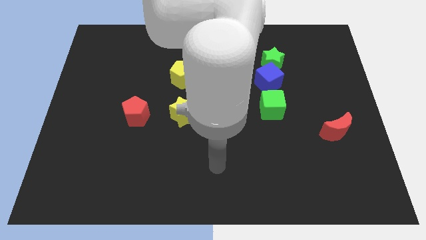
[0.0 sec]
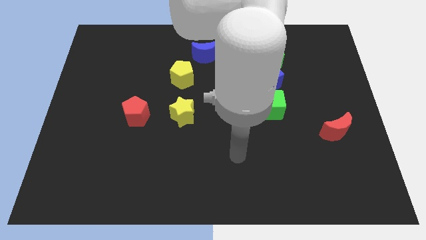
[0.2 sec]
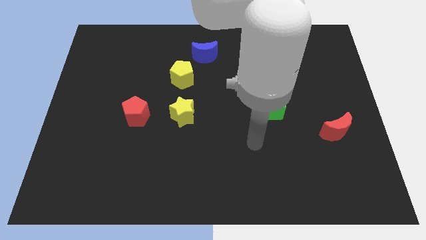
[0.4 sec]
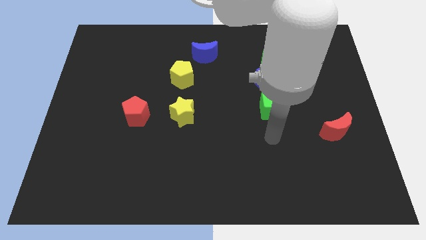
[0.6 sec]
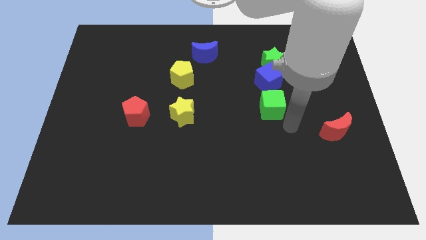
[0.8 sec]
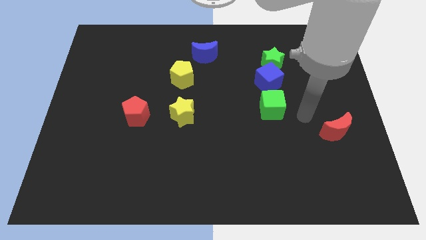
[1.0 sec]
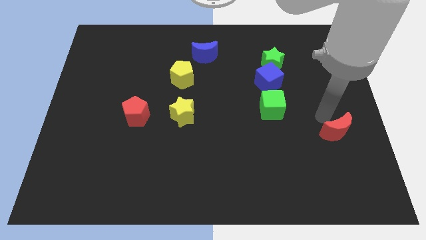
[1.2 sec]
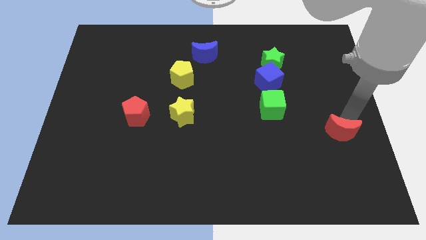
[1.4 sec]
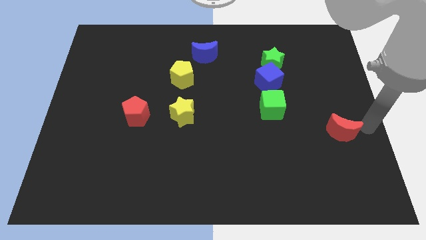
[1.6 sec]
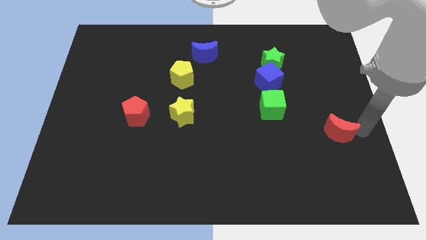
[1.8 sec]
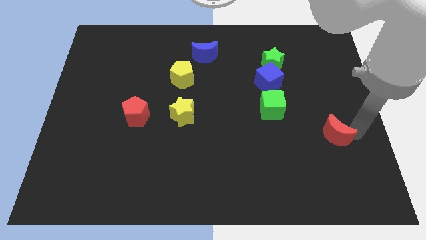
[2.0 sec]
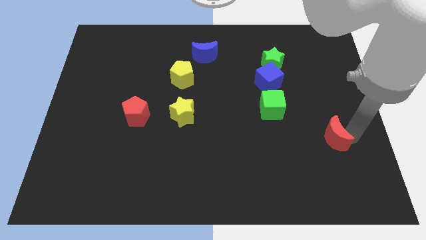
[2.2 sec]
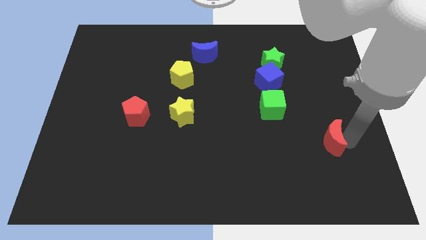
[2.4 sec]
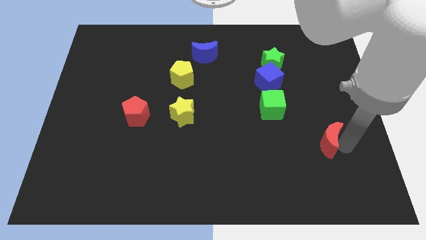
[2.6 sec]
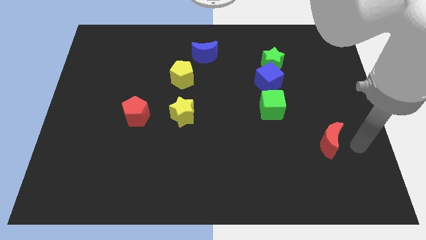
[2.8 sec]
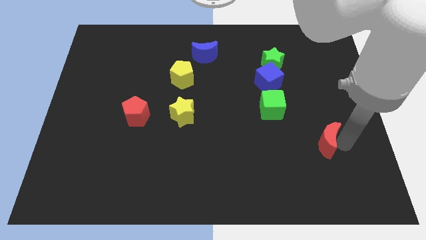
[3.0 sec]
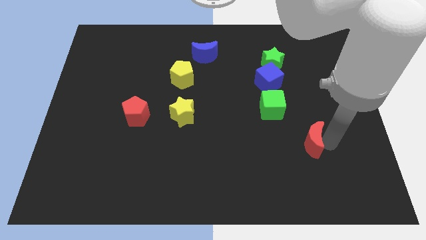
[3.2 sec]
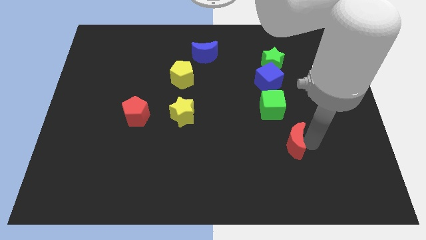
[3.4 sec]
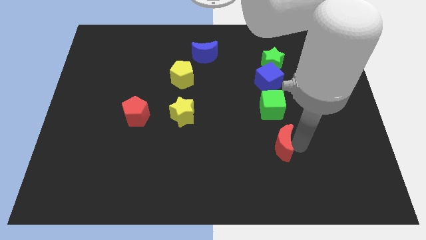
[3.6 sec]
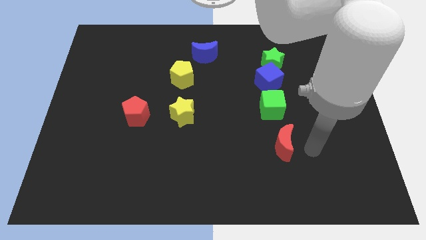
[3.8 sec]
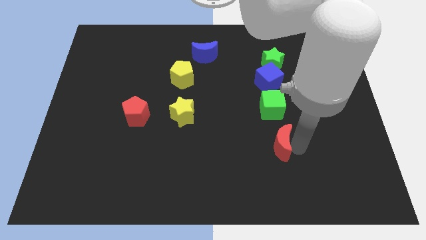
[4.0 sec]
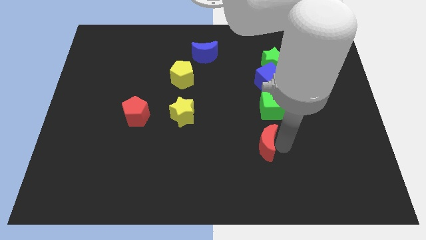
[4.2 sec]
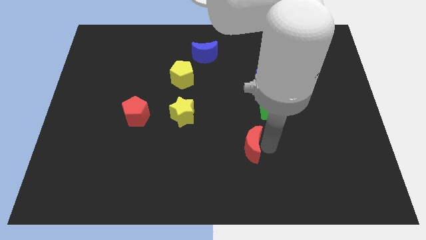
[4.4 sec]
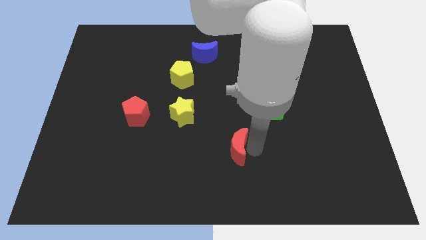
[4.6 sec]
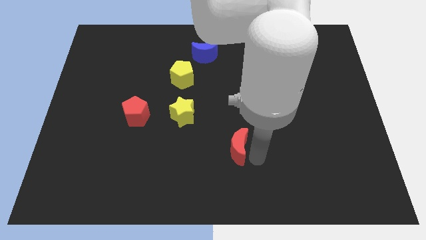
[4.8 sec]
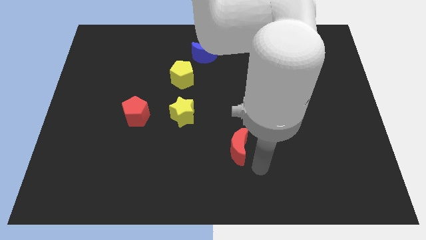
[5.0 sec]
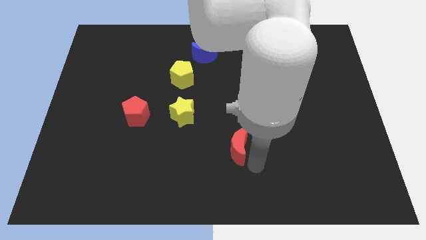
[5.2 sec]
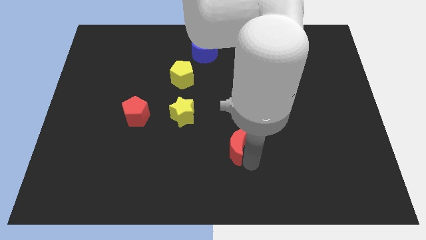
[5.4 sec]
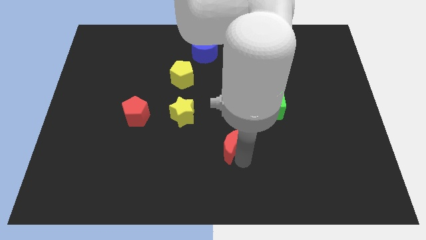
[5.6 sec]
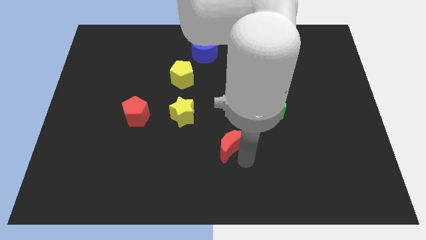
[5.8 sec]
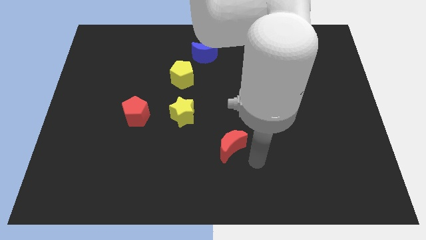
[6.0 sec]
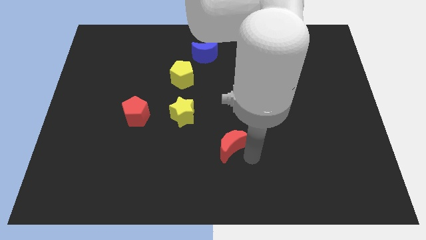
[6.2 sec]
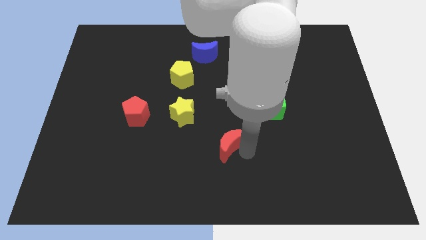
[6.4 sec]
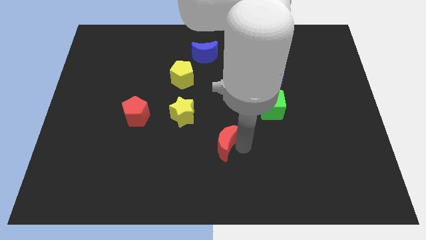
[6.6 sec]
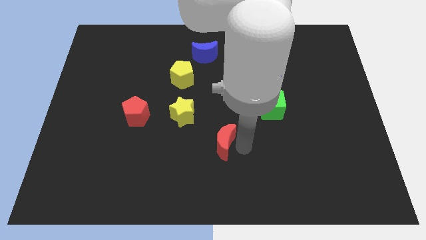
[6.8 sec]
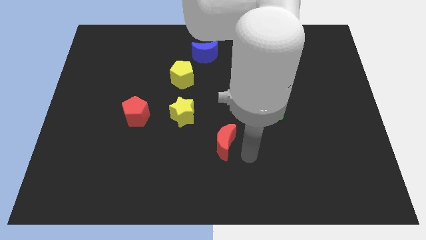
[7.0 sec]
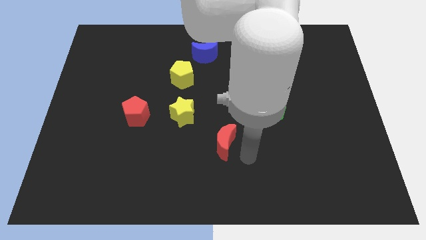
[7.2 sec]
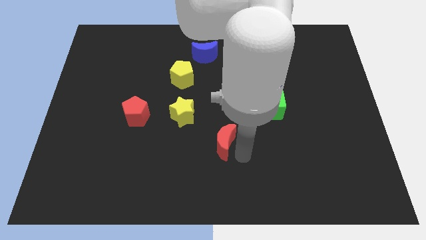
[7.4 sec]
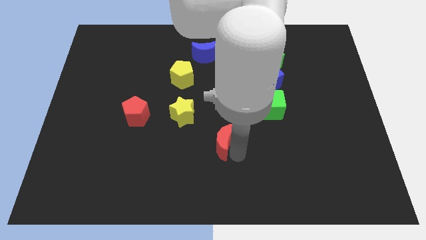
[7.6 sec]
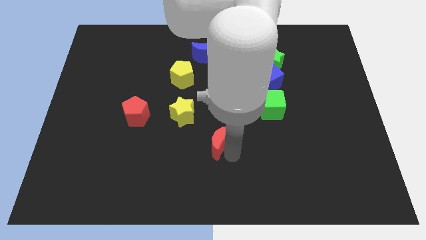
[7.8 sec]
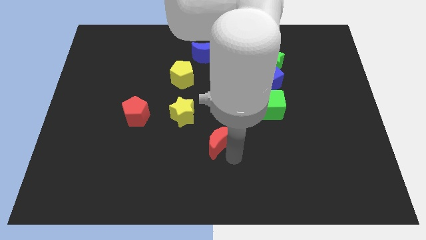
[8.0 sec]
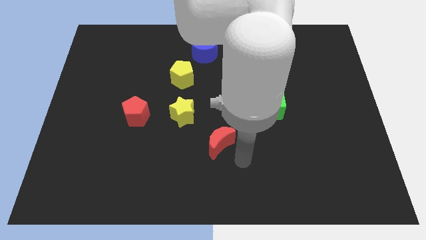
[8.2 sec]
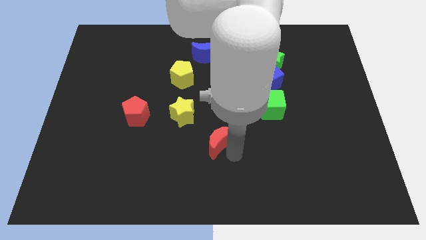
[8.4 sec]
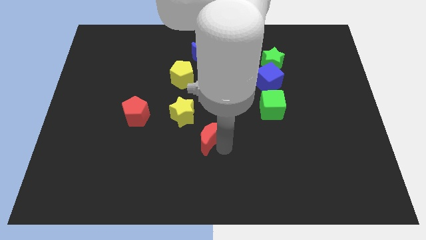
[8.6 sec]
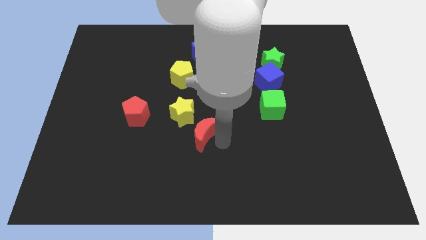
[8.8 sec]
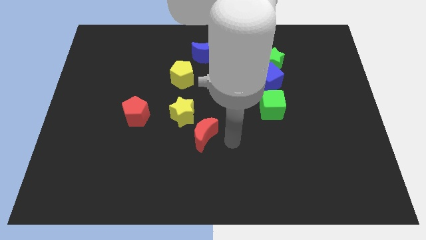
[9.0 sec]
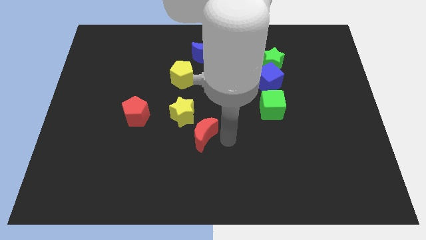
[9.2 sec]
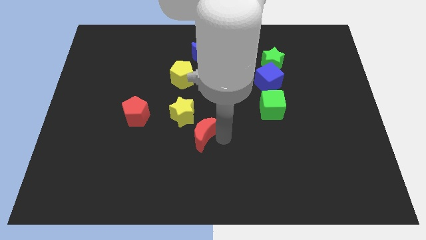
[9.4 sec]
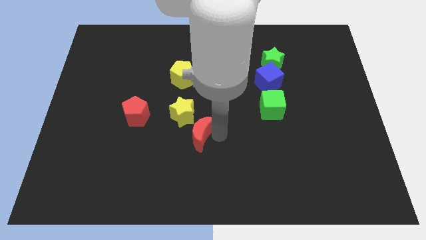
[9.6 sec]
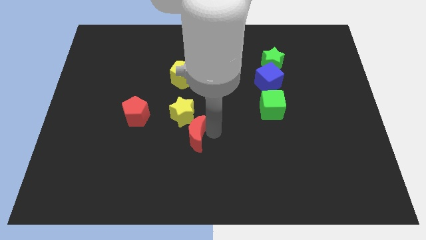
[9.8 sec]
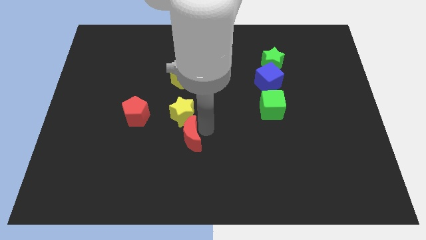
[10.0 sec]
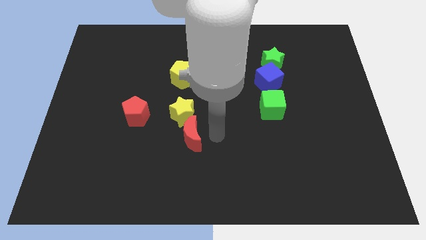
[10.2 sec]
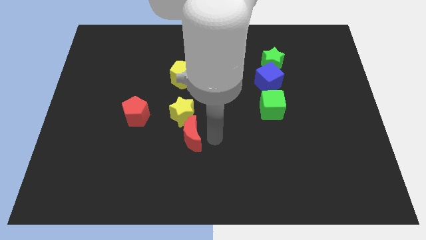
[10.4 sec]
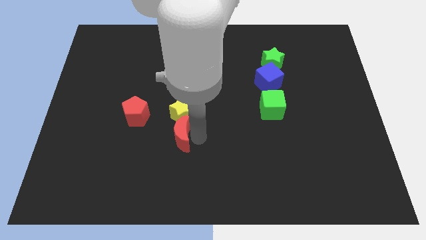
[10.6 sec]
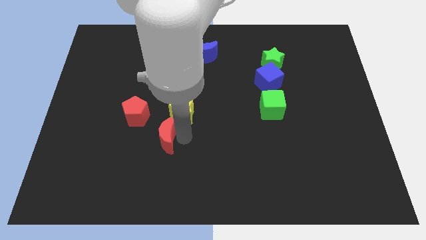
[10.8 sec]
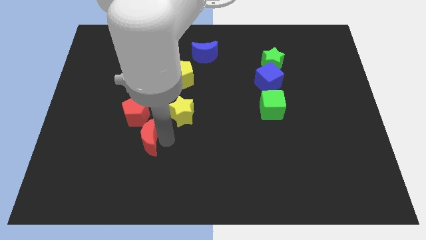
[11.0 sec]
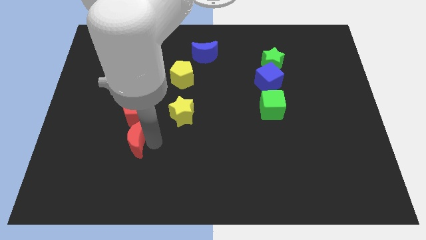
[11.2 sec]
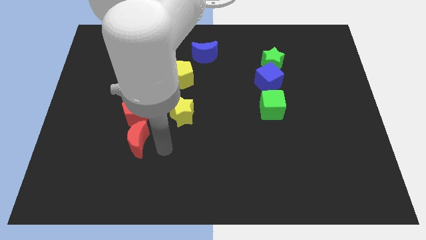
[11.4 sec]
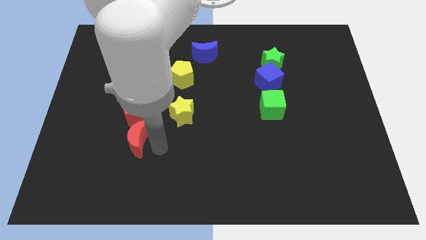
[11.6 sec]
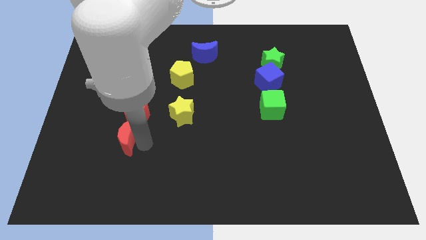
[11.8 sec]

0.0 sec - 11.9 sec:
move the red moon to the bottom left side of the red pentagon

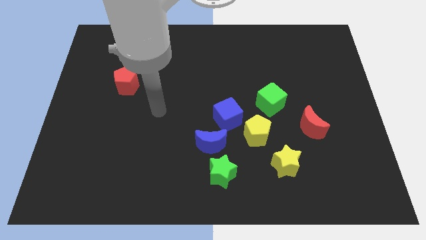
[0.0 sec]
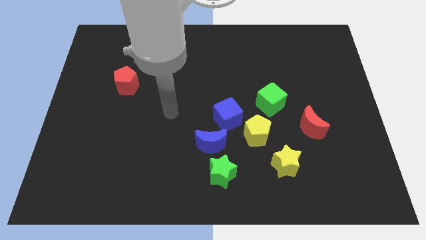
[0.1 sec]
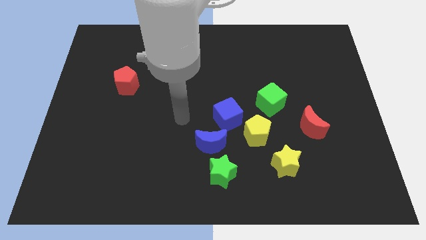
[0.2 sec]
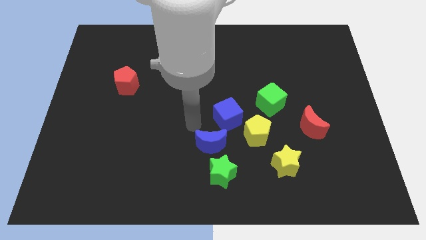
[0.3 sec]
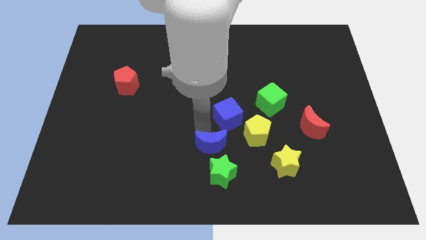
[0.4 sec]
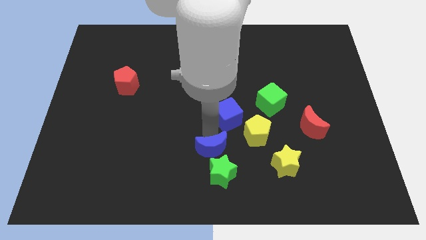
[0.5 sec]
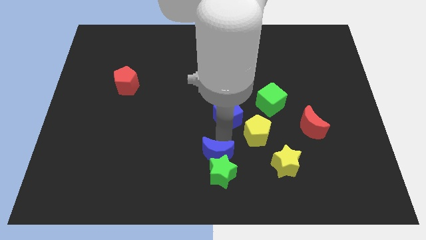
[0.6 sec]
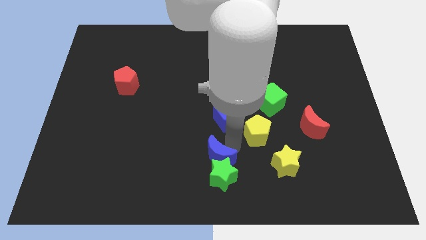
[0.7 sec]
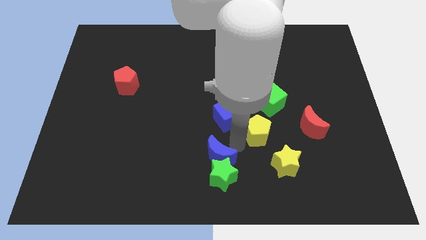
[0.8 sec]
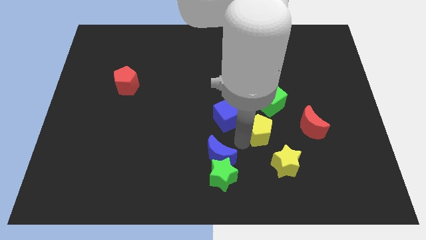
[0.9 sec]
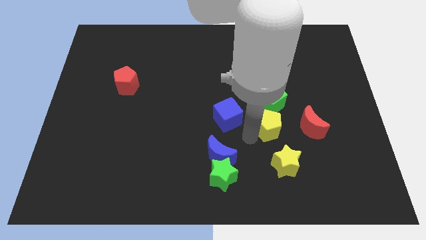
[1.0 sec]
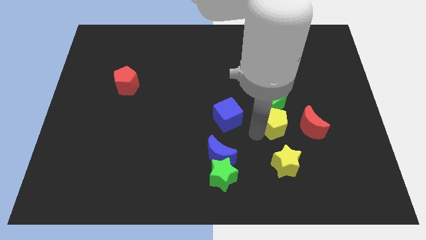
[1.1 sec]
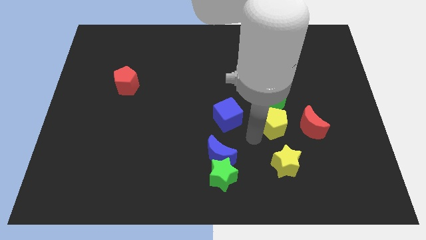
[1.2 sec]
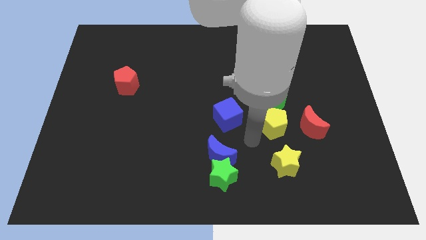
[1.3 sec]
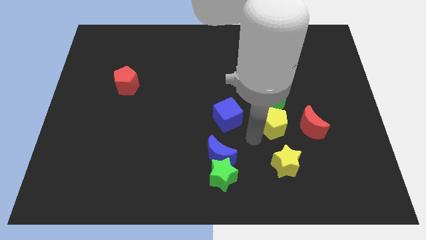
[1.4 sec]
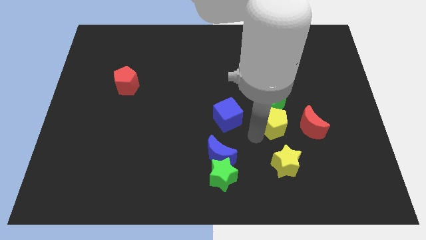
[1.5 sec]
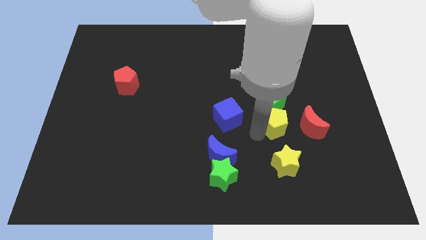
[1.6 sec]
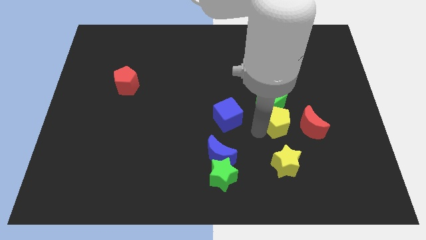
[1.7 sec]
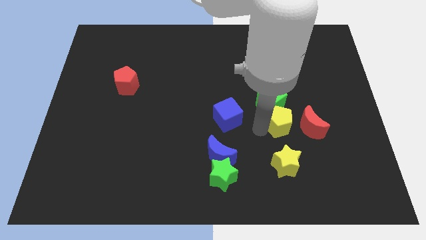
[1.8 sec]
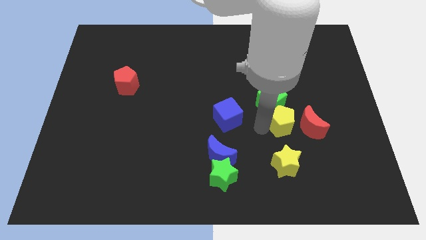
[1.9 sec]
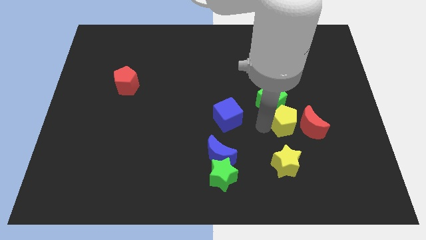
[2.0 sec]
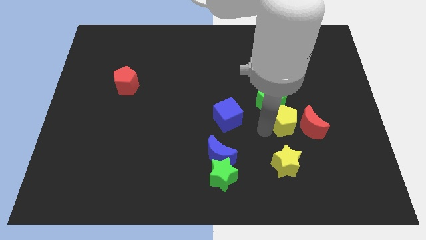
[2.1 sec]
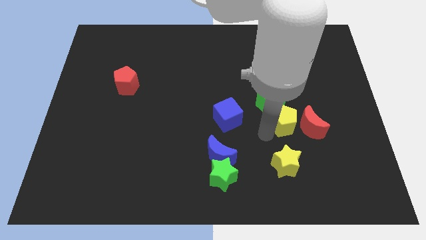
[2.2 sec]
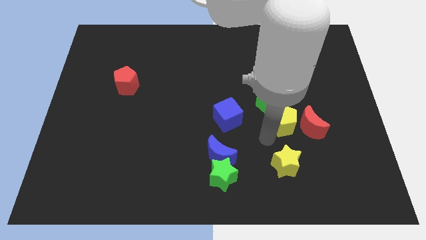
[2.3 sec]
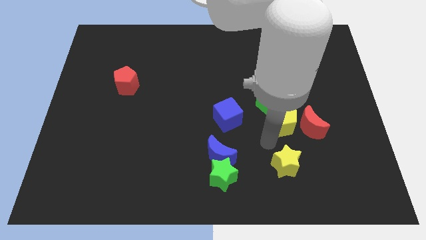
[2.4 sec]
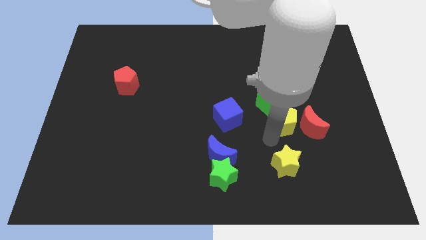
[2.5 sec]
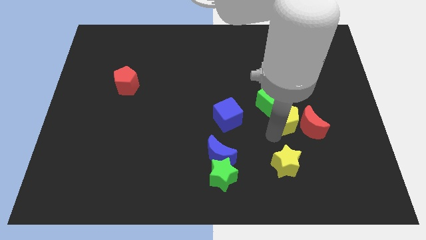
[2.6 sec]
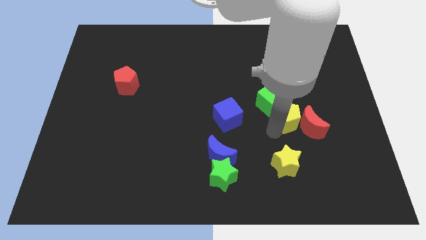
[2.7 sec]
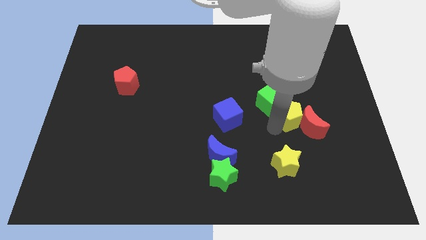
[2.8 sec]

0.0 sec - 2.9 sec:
slide the yellow pentagon just right of the green cube

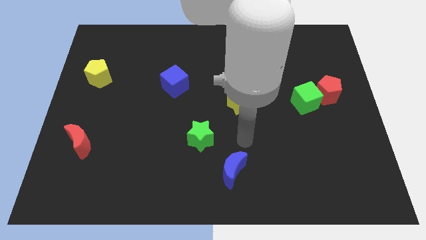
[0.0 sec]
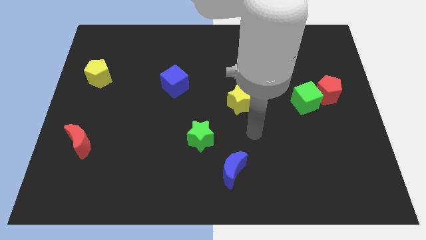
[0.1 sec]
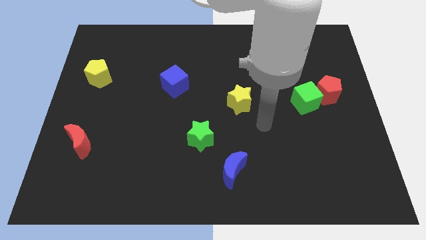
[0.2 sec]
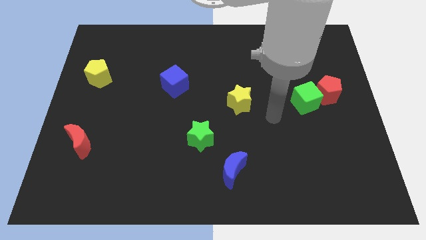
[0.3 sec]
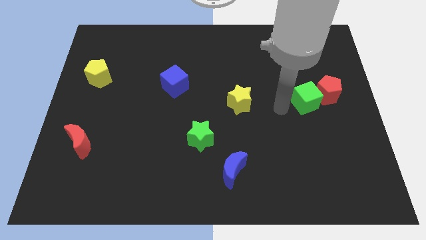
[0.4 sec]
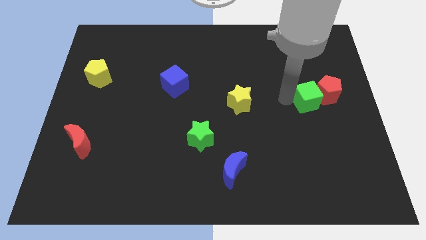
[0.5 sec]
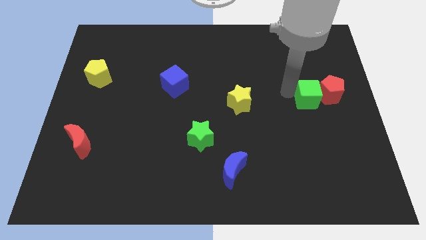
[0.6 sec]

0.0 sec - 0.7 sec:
put the red pentagon to the bottom right side of the green cube
